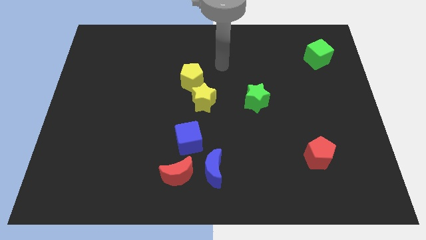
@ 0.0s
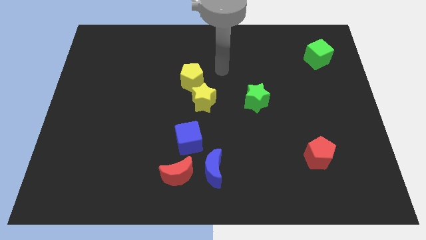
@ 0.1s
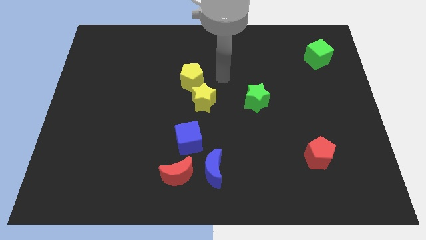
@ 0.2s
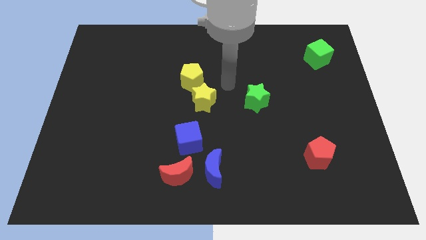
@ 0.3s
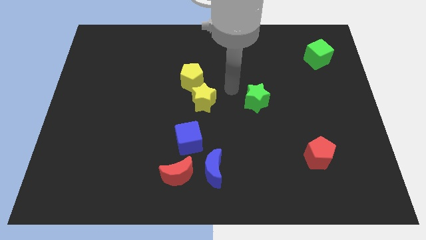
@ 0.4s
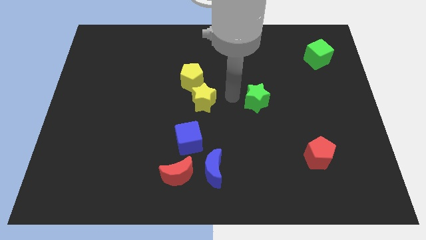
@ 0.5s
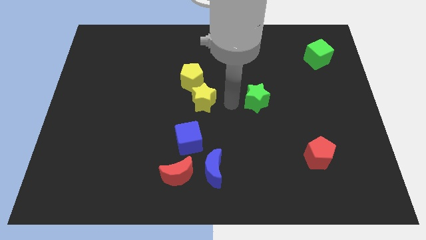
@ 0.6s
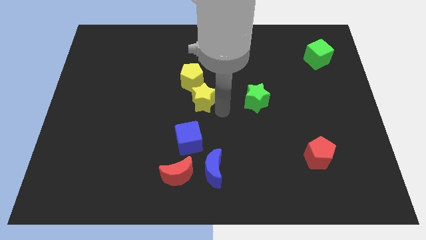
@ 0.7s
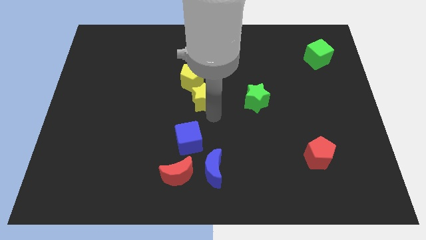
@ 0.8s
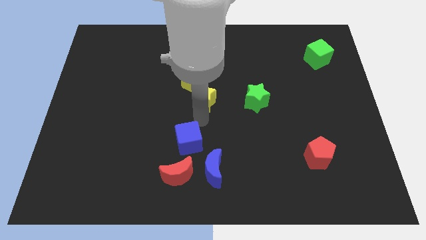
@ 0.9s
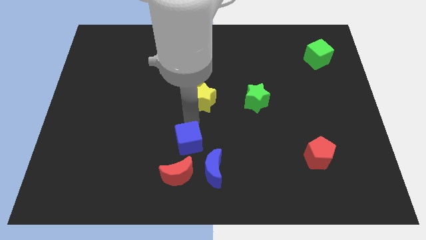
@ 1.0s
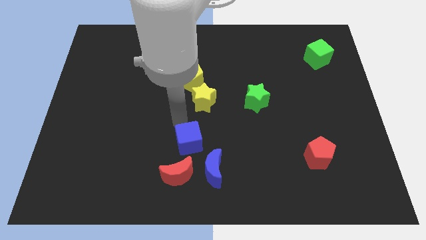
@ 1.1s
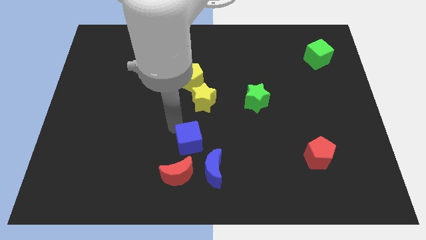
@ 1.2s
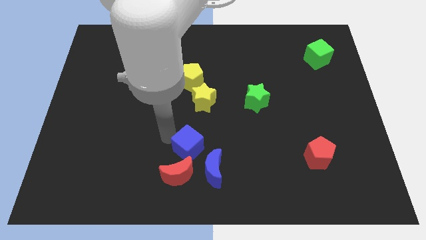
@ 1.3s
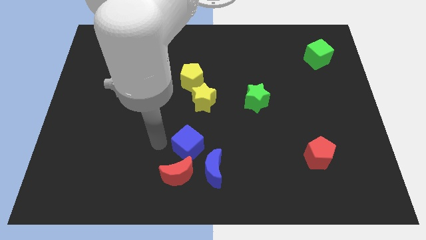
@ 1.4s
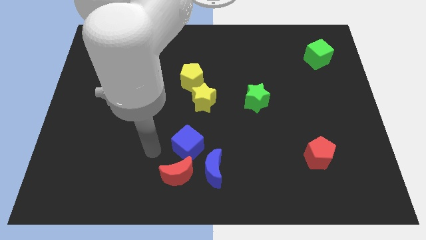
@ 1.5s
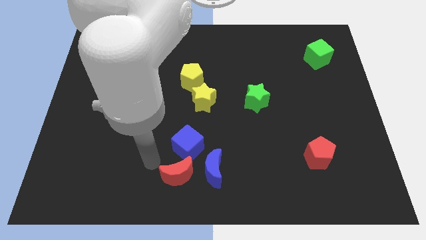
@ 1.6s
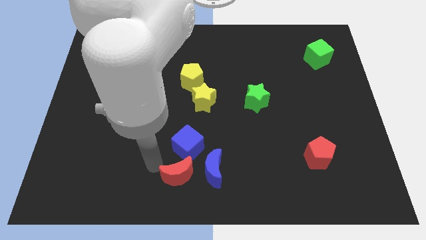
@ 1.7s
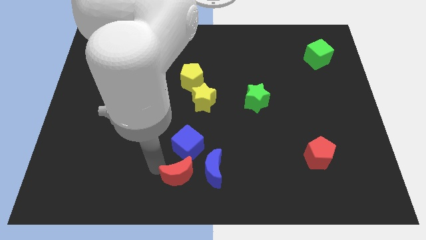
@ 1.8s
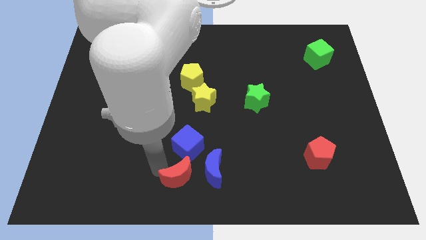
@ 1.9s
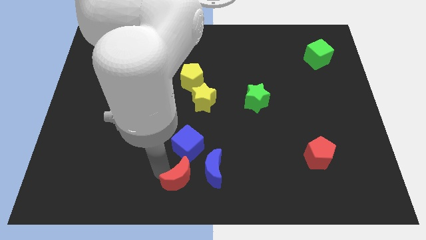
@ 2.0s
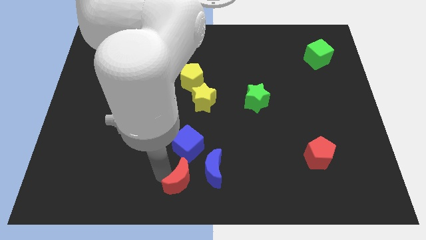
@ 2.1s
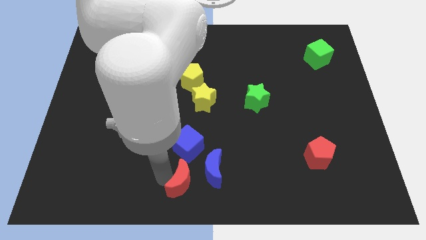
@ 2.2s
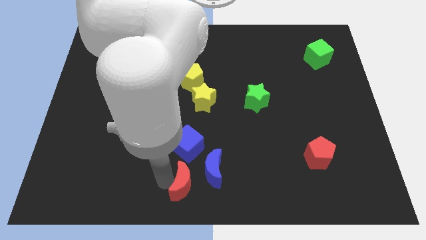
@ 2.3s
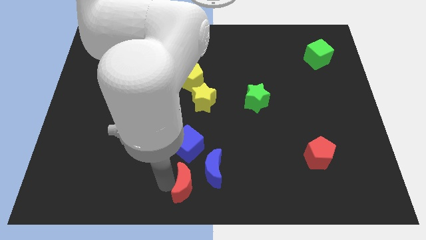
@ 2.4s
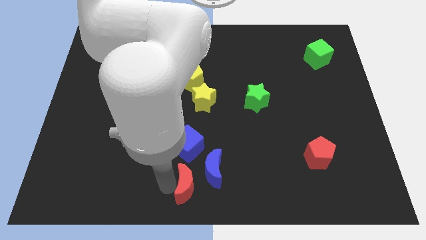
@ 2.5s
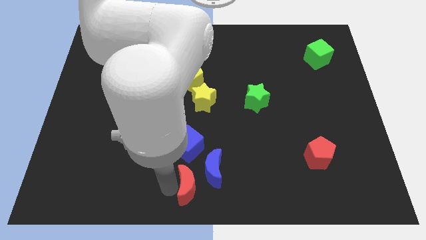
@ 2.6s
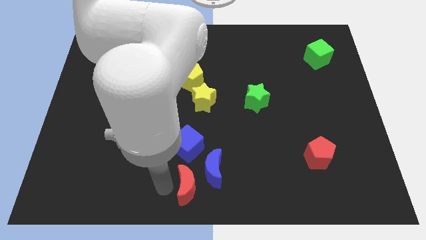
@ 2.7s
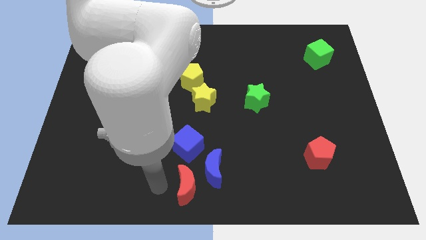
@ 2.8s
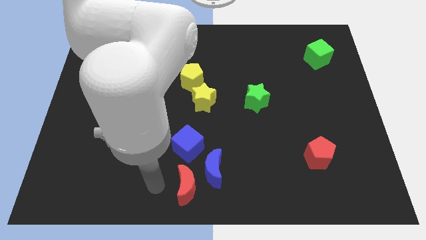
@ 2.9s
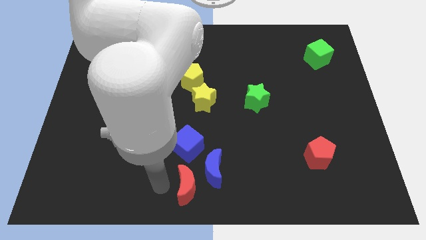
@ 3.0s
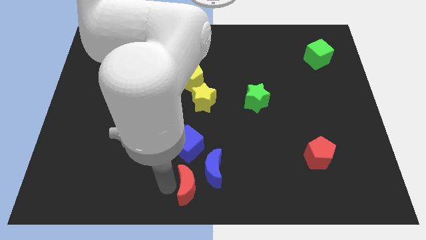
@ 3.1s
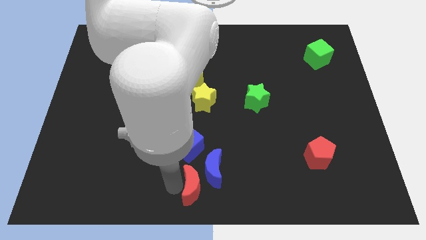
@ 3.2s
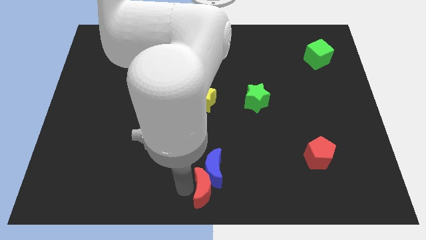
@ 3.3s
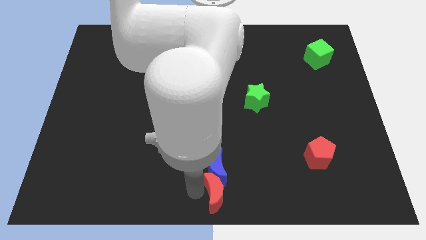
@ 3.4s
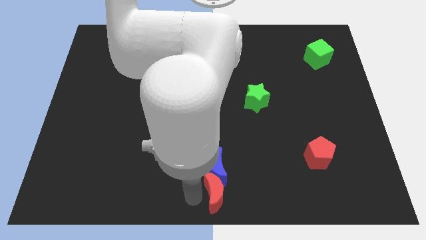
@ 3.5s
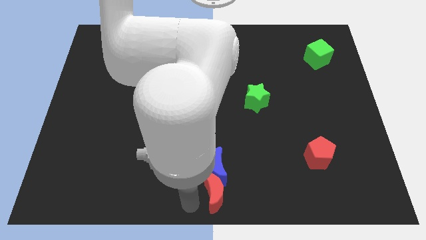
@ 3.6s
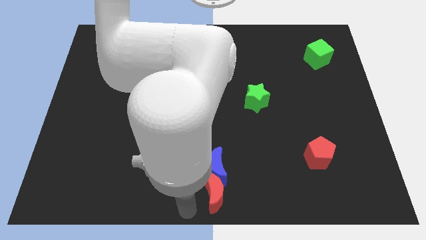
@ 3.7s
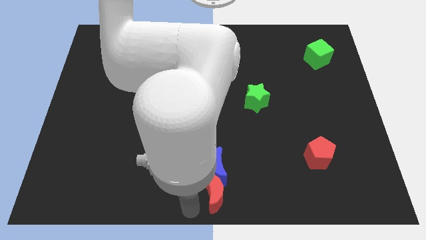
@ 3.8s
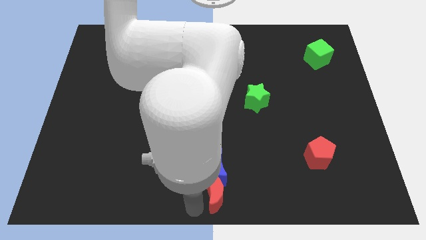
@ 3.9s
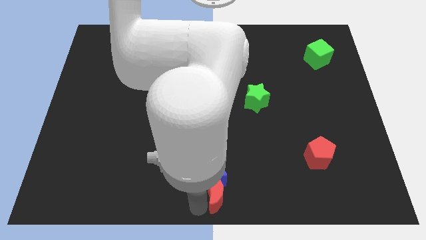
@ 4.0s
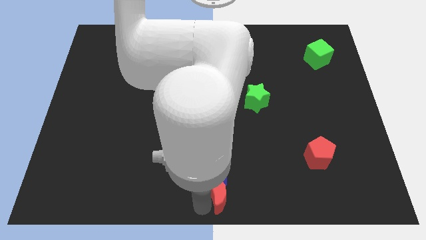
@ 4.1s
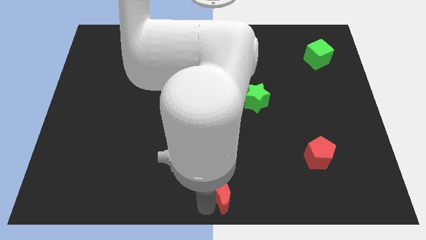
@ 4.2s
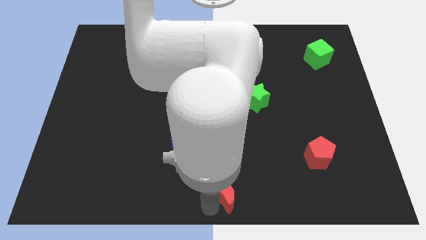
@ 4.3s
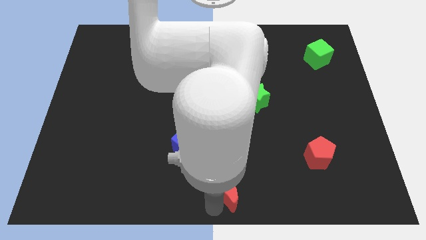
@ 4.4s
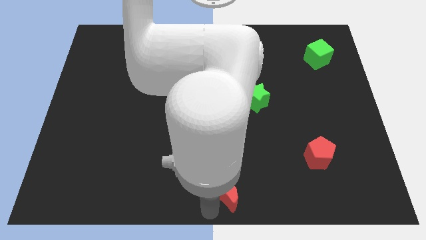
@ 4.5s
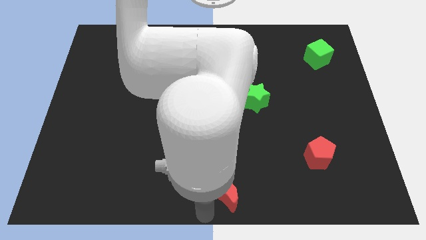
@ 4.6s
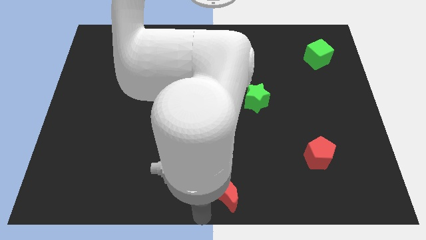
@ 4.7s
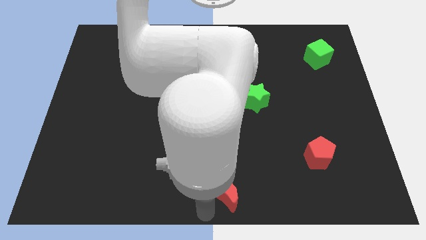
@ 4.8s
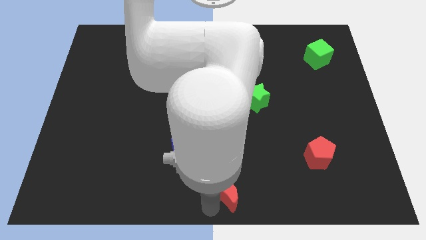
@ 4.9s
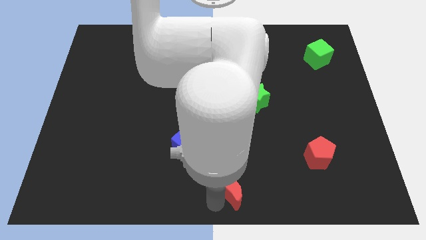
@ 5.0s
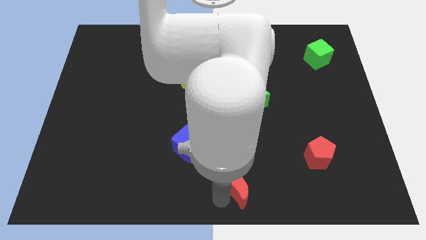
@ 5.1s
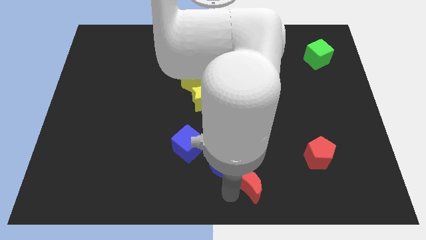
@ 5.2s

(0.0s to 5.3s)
put the red moon just right of the blue moon

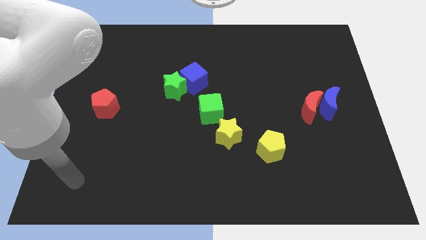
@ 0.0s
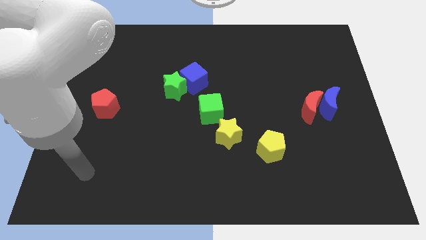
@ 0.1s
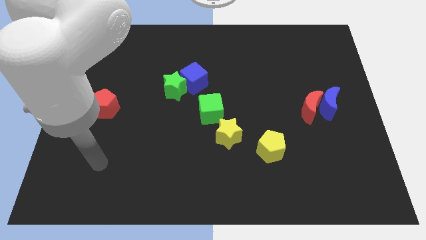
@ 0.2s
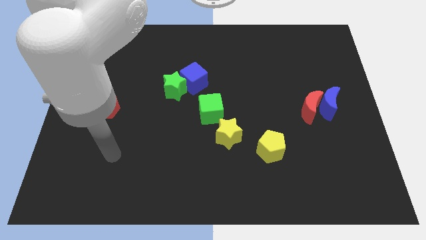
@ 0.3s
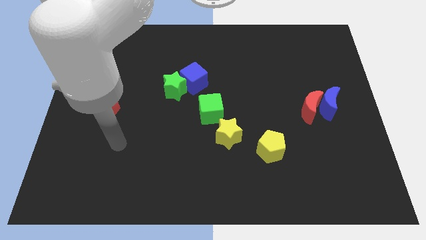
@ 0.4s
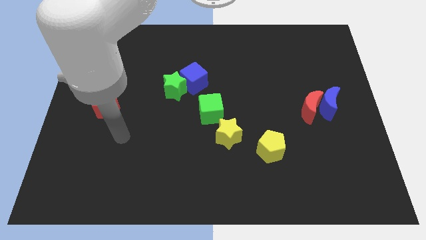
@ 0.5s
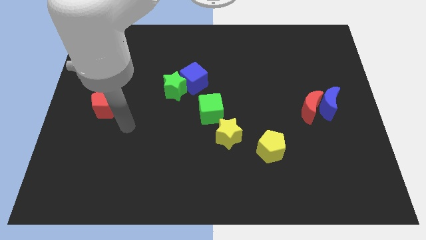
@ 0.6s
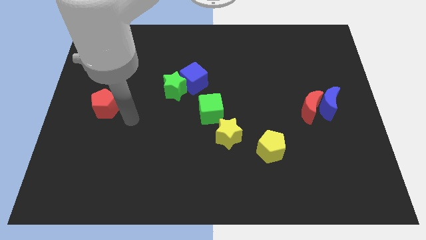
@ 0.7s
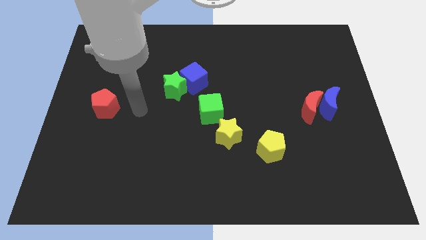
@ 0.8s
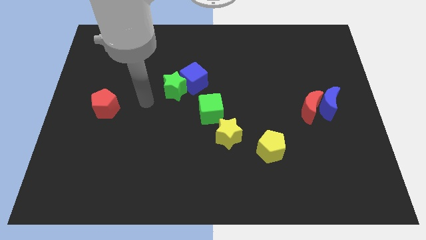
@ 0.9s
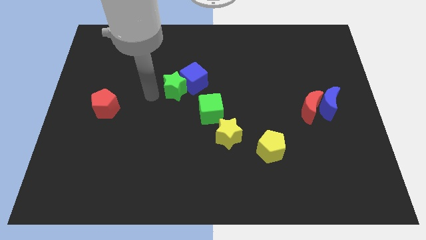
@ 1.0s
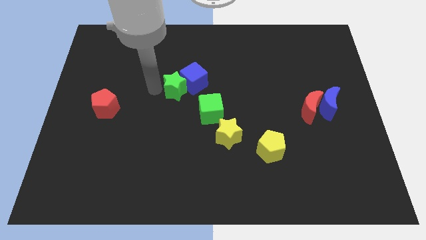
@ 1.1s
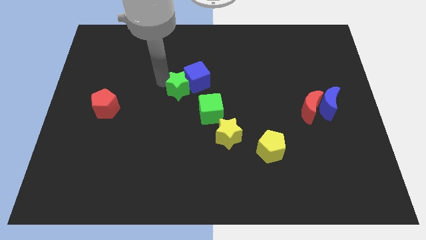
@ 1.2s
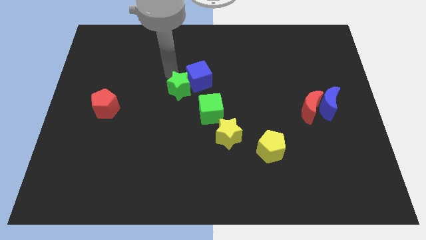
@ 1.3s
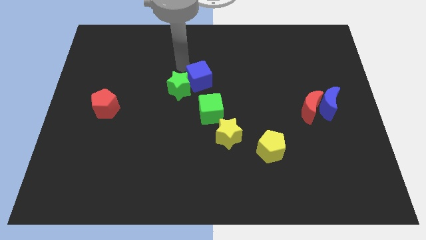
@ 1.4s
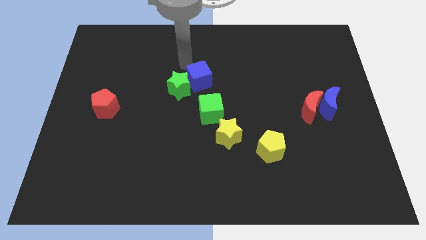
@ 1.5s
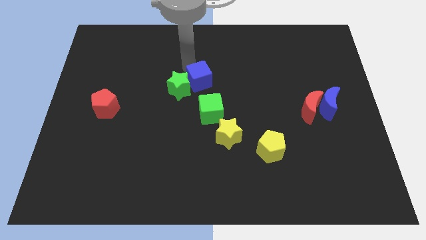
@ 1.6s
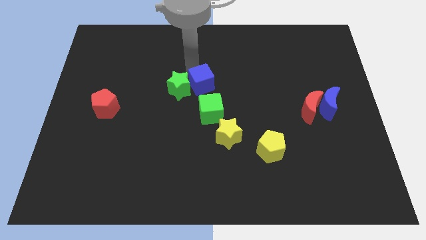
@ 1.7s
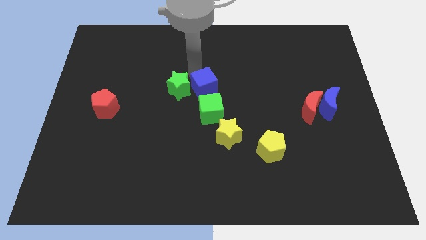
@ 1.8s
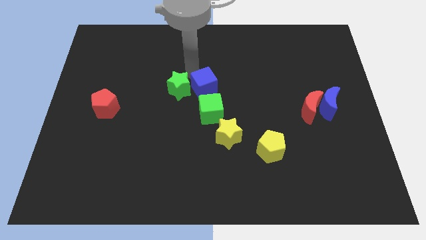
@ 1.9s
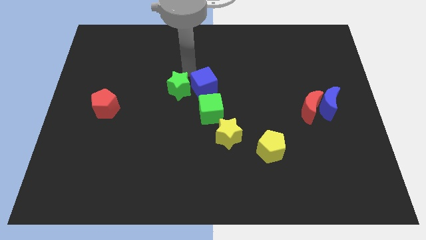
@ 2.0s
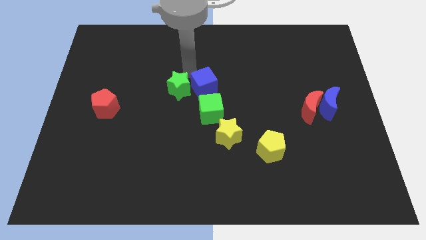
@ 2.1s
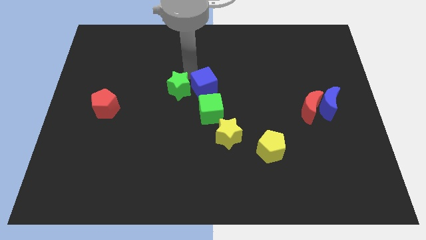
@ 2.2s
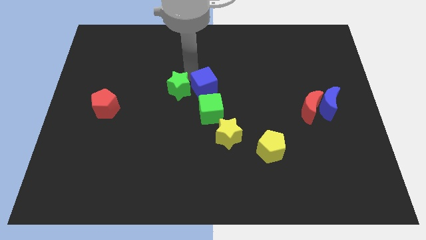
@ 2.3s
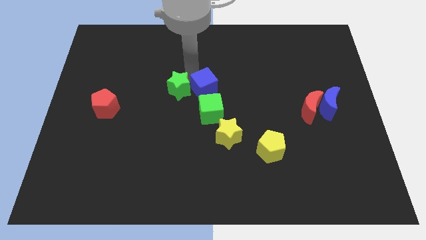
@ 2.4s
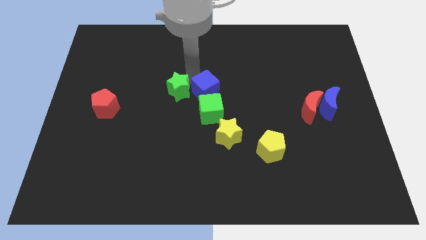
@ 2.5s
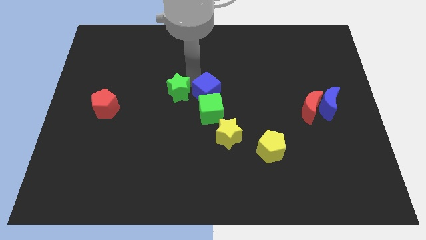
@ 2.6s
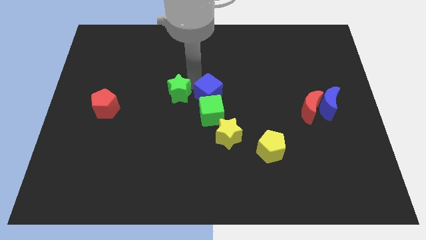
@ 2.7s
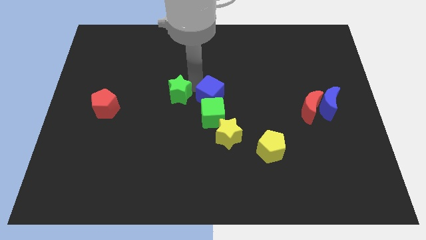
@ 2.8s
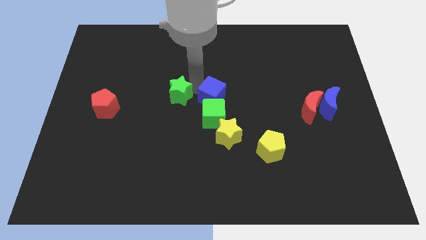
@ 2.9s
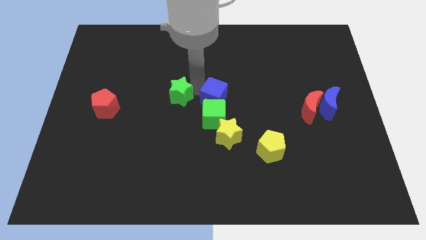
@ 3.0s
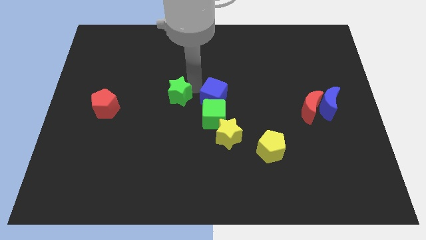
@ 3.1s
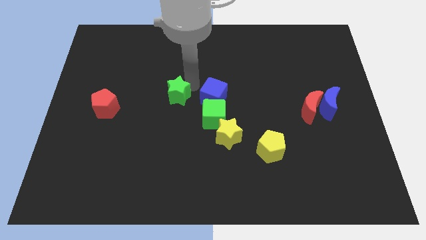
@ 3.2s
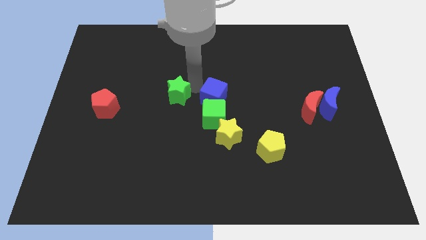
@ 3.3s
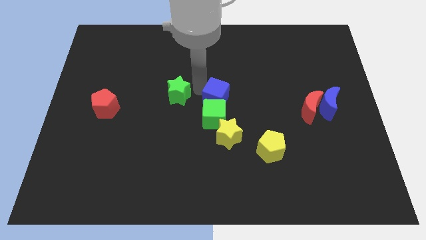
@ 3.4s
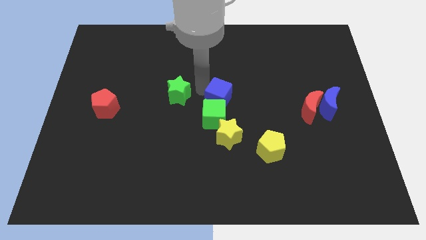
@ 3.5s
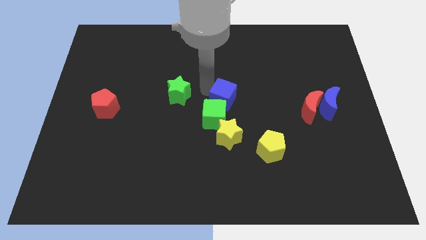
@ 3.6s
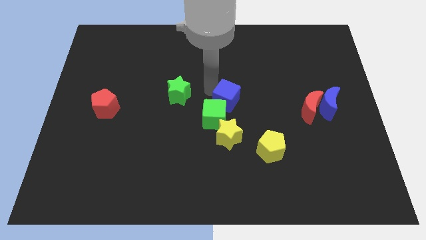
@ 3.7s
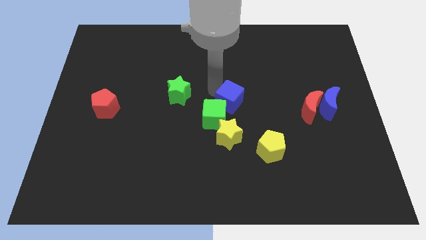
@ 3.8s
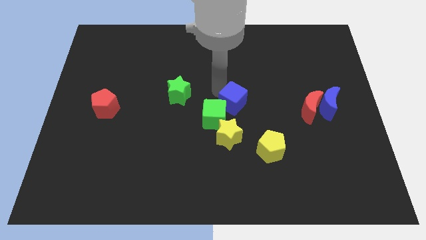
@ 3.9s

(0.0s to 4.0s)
slide the blue cube right of the green cube
